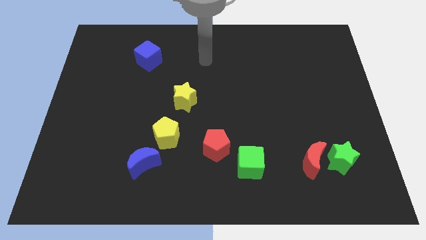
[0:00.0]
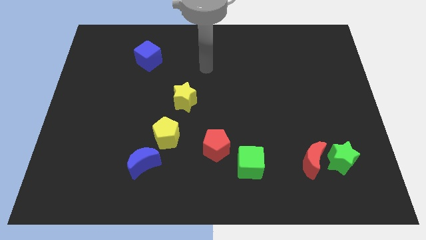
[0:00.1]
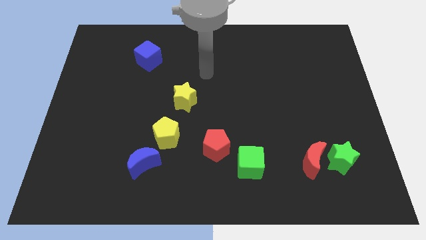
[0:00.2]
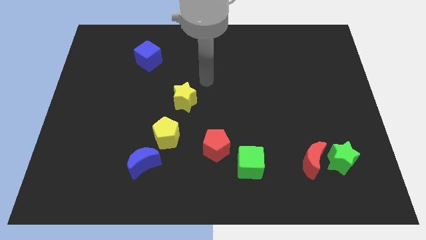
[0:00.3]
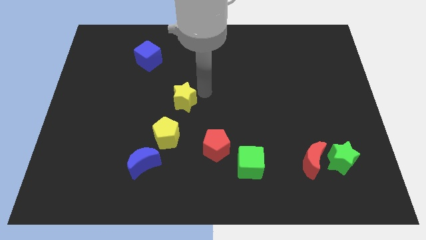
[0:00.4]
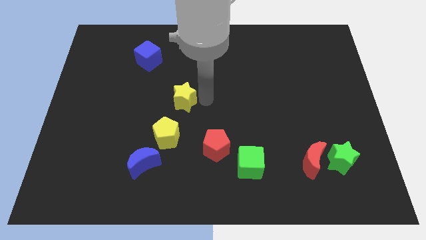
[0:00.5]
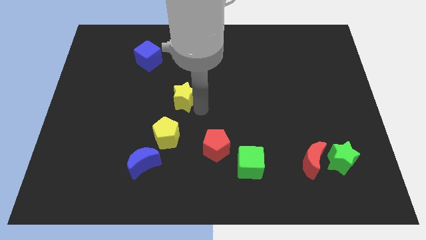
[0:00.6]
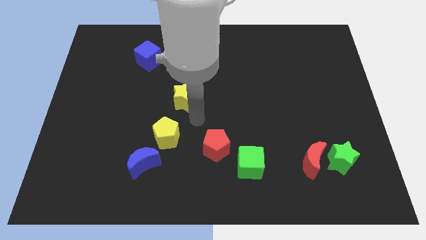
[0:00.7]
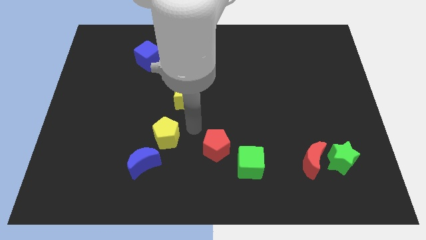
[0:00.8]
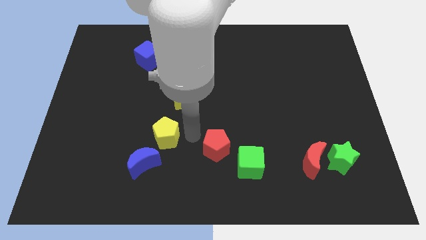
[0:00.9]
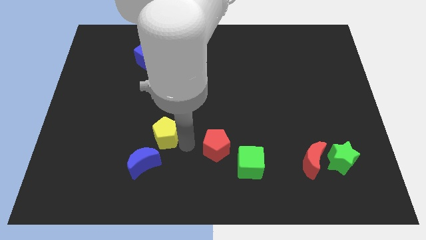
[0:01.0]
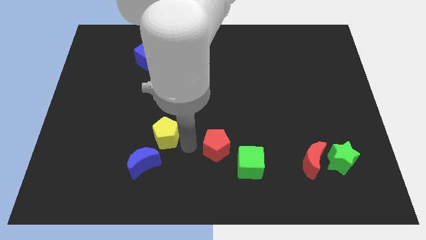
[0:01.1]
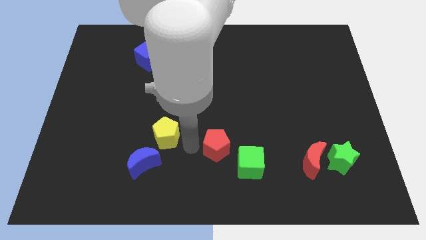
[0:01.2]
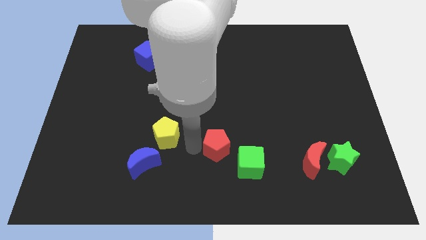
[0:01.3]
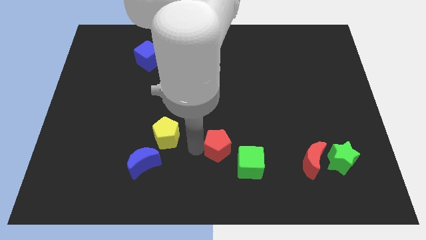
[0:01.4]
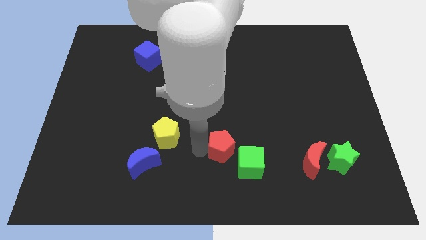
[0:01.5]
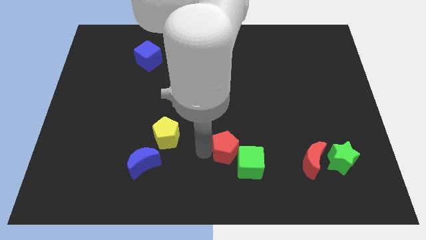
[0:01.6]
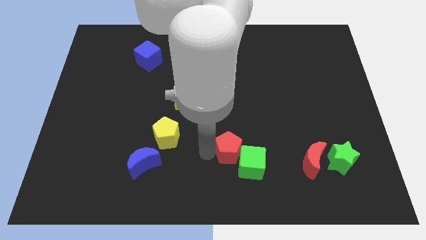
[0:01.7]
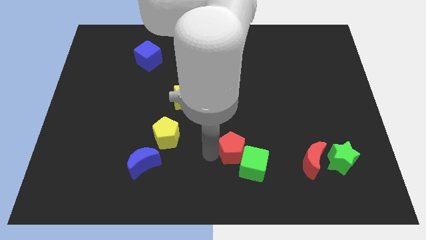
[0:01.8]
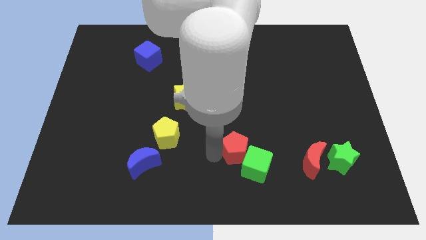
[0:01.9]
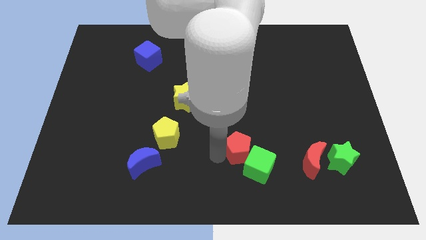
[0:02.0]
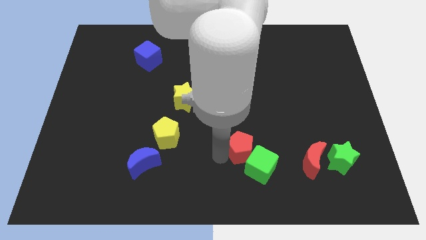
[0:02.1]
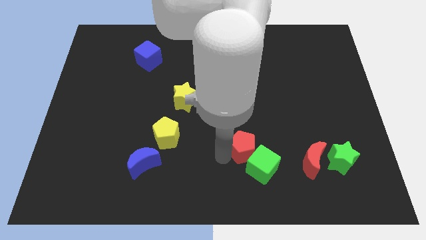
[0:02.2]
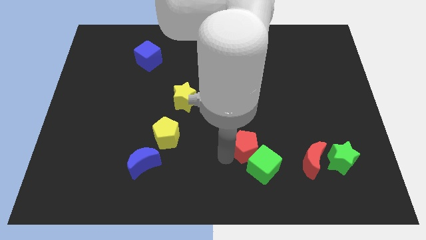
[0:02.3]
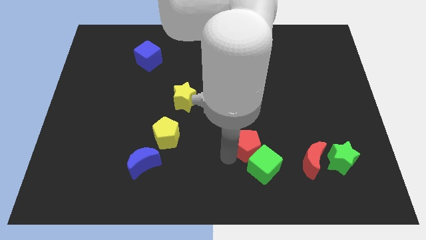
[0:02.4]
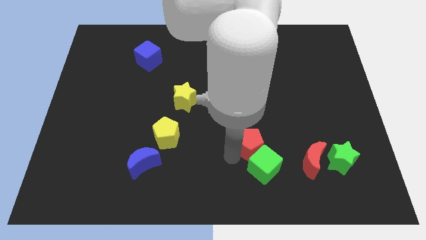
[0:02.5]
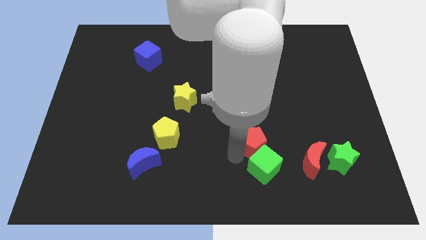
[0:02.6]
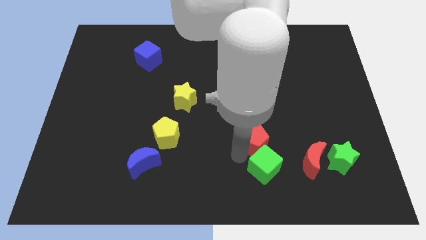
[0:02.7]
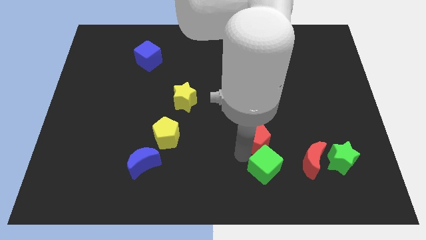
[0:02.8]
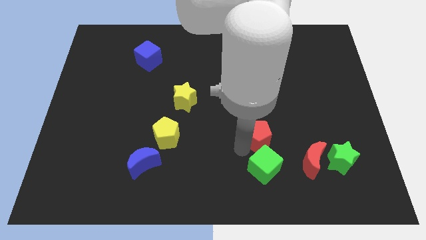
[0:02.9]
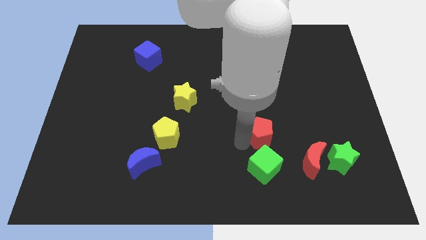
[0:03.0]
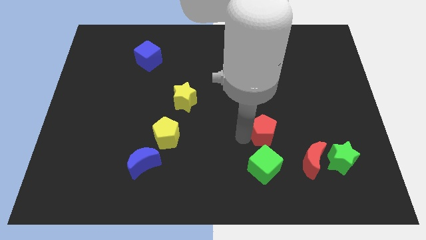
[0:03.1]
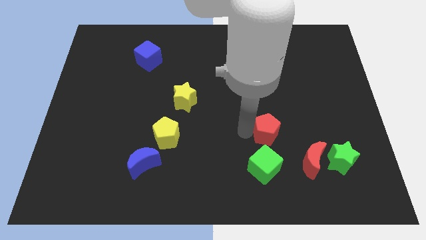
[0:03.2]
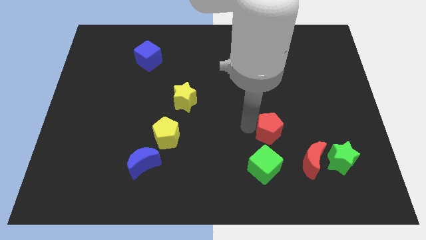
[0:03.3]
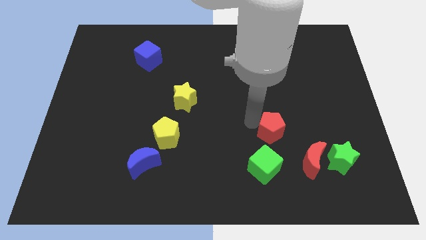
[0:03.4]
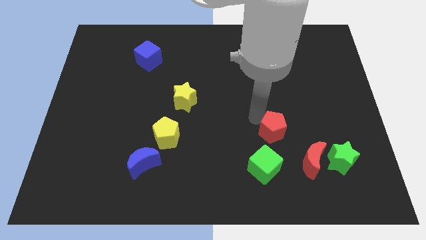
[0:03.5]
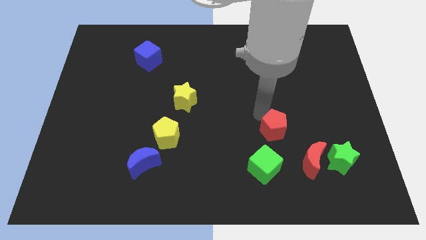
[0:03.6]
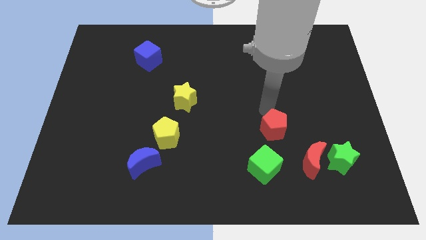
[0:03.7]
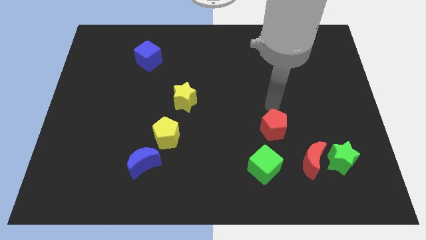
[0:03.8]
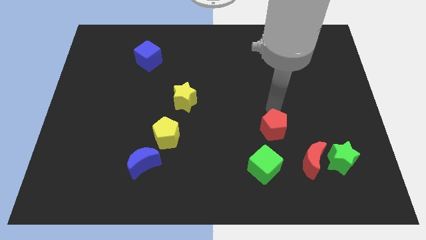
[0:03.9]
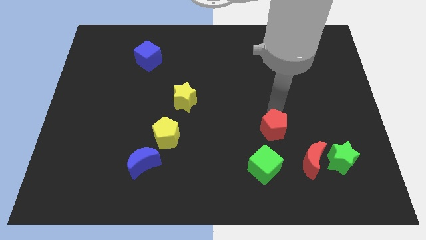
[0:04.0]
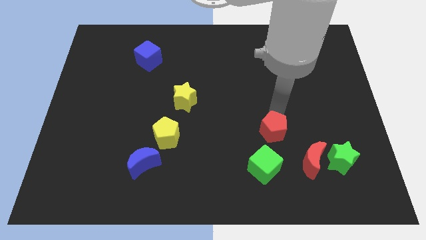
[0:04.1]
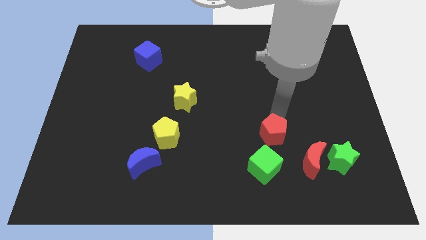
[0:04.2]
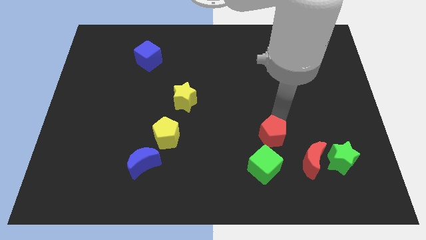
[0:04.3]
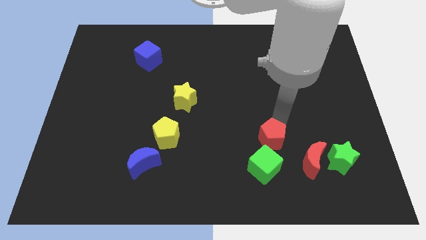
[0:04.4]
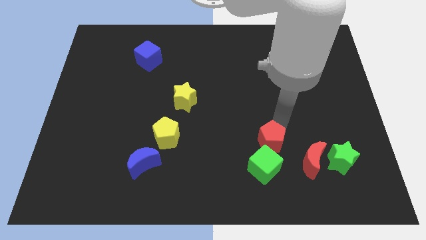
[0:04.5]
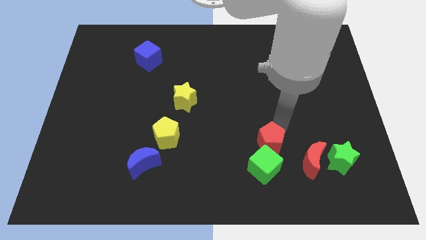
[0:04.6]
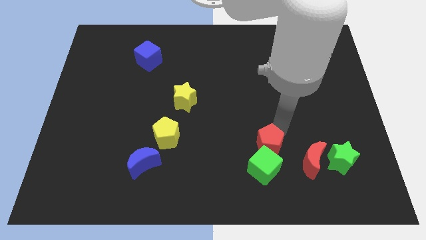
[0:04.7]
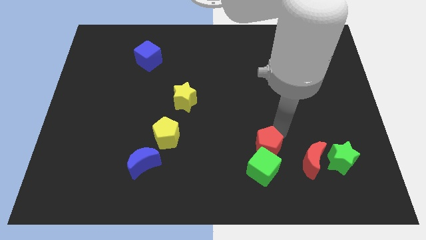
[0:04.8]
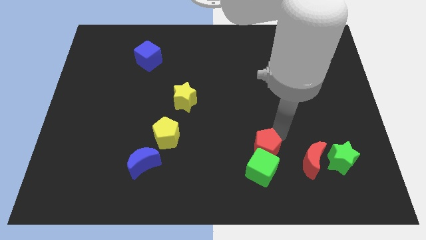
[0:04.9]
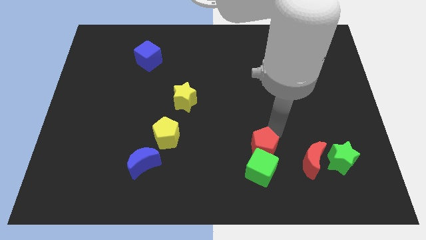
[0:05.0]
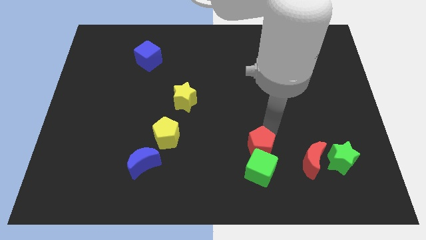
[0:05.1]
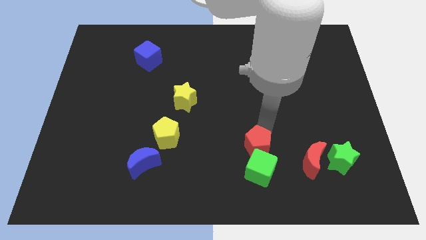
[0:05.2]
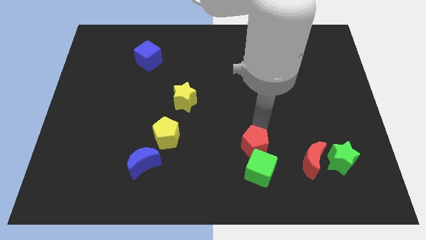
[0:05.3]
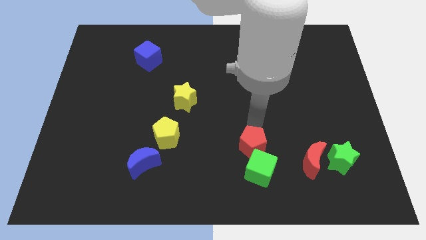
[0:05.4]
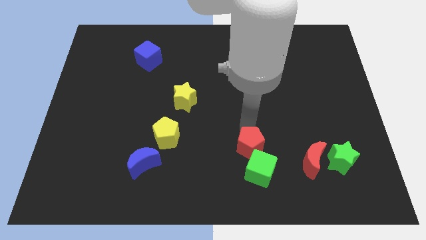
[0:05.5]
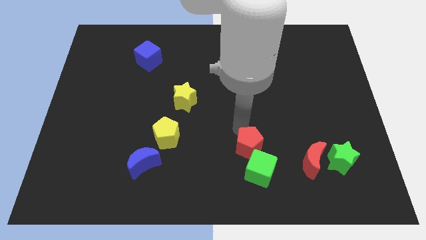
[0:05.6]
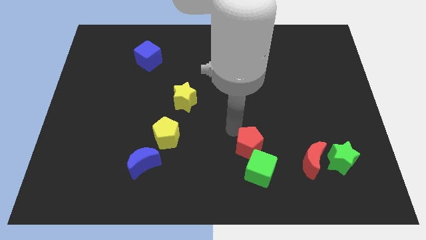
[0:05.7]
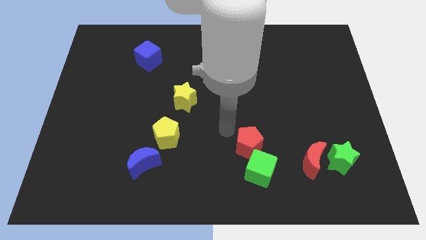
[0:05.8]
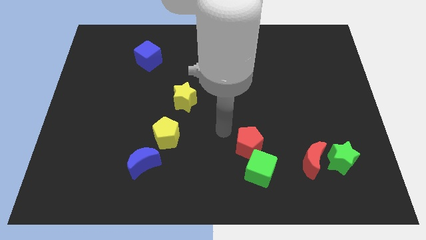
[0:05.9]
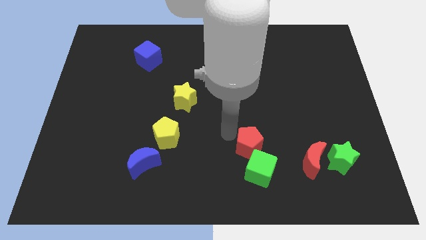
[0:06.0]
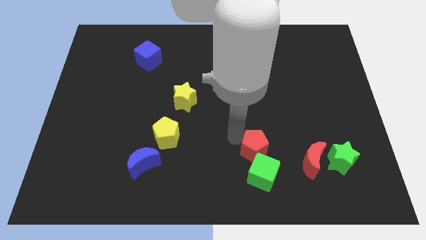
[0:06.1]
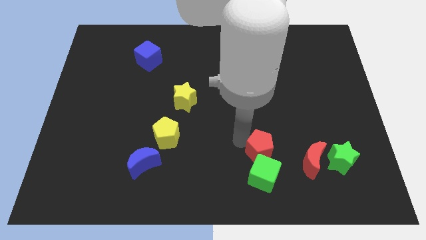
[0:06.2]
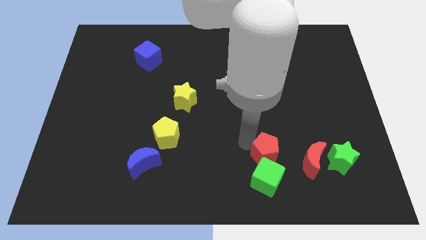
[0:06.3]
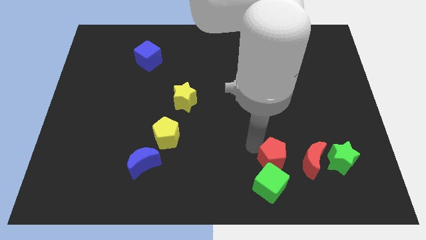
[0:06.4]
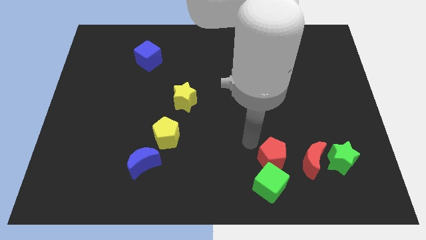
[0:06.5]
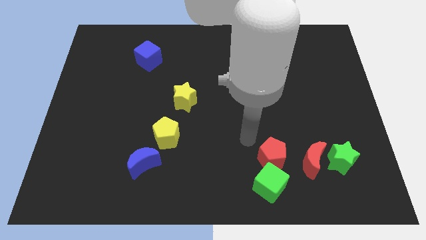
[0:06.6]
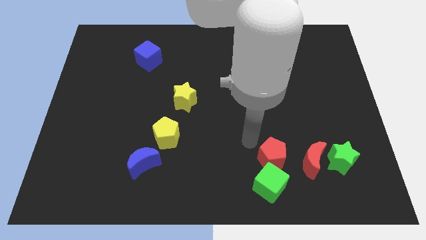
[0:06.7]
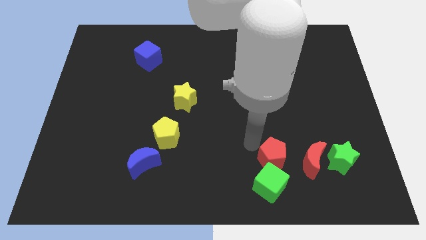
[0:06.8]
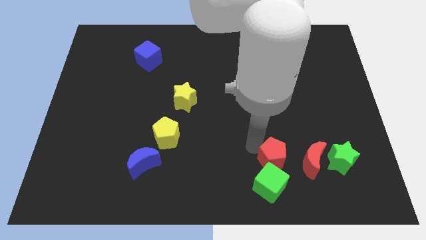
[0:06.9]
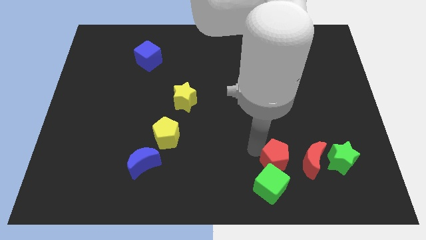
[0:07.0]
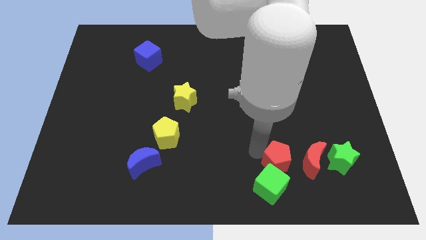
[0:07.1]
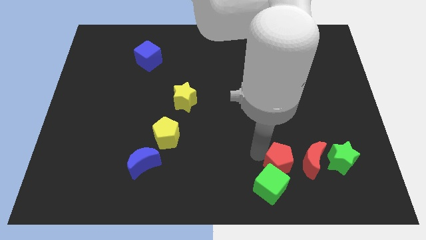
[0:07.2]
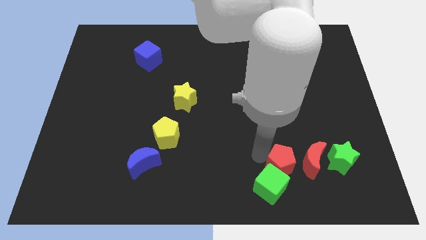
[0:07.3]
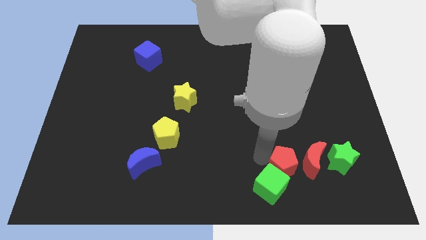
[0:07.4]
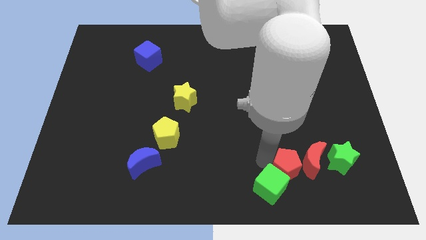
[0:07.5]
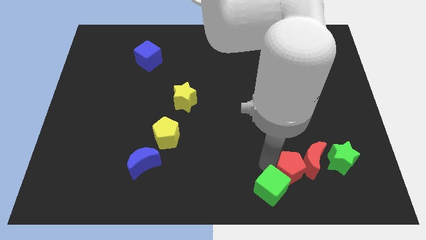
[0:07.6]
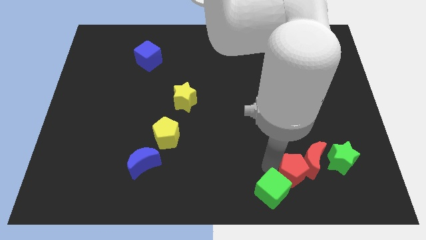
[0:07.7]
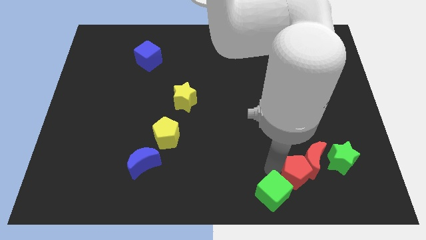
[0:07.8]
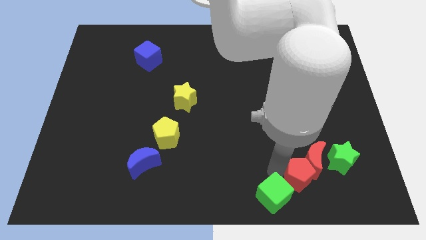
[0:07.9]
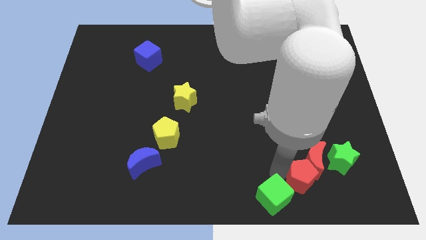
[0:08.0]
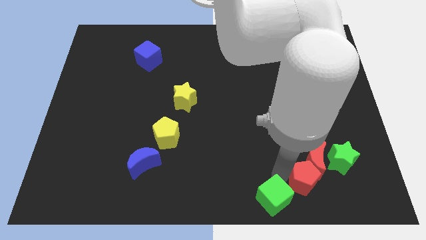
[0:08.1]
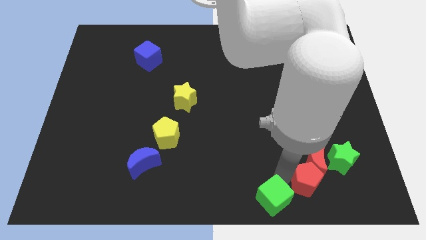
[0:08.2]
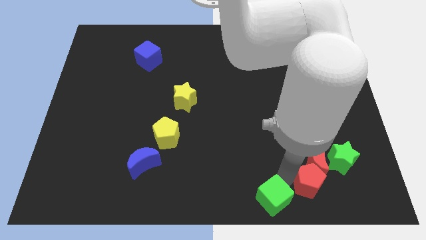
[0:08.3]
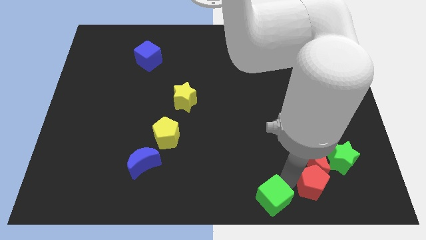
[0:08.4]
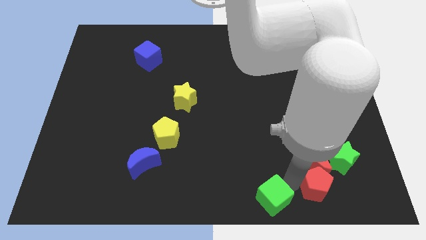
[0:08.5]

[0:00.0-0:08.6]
slide the red pentagon to the bottom right side of the red moon
